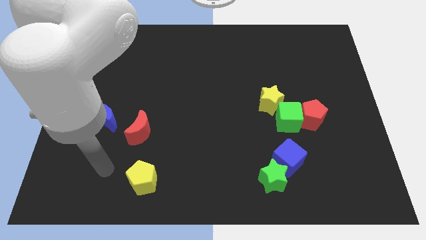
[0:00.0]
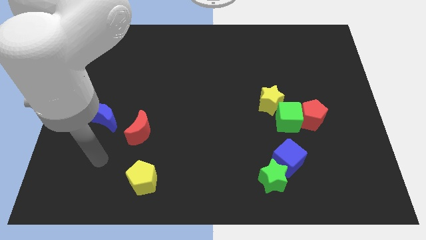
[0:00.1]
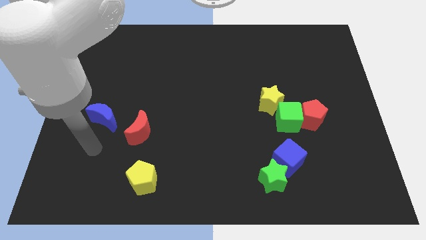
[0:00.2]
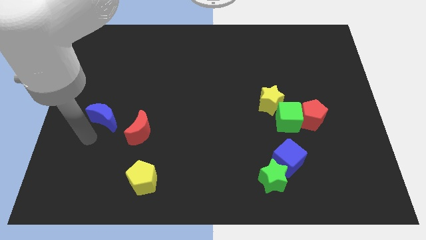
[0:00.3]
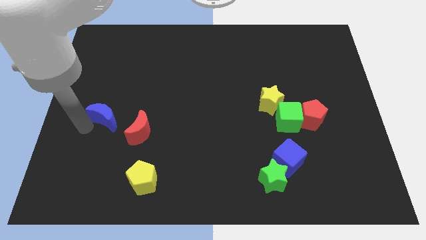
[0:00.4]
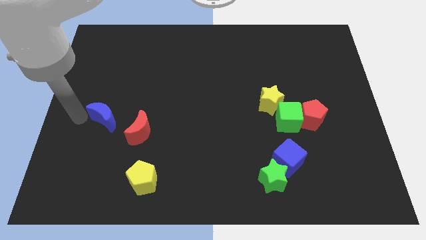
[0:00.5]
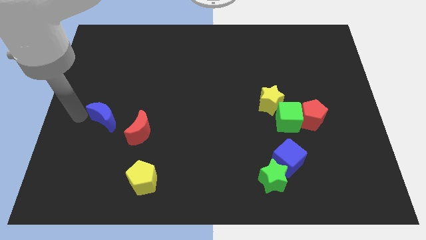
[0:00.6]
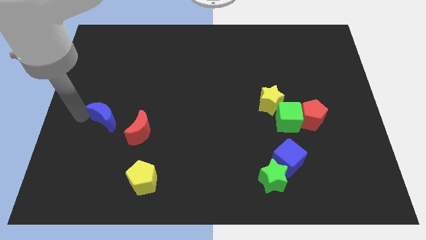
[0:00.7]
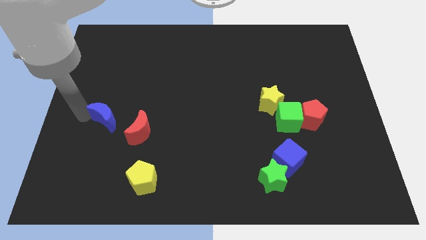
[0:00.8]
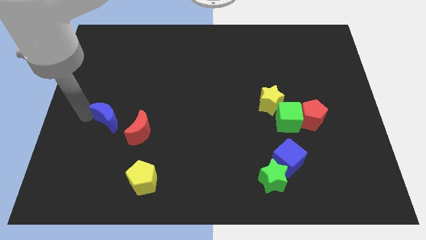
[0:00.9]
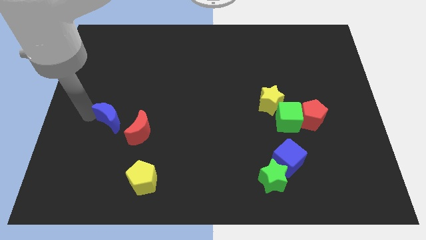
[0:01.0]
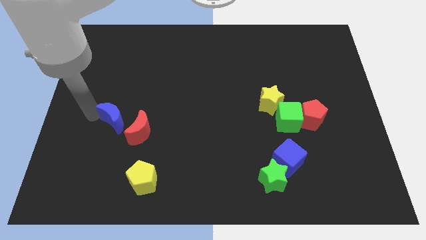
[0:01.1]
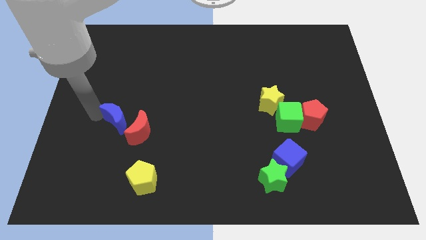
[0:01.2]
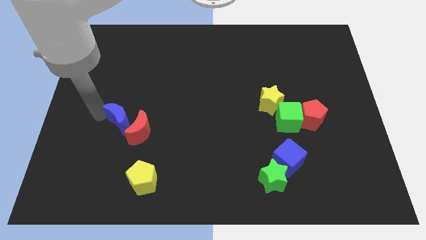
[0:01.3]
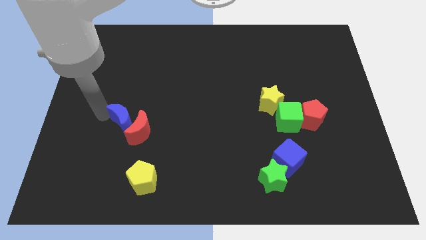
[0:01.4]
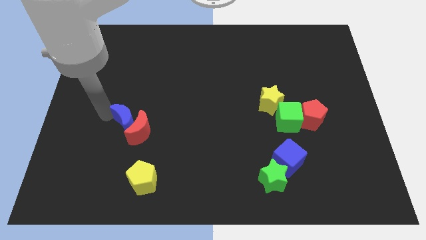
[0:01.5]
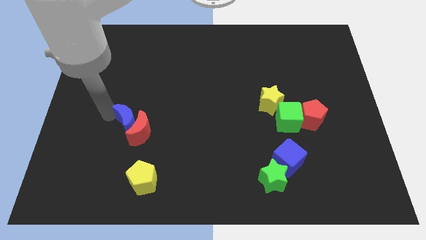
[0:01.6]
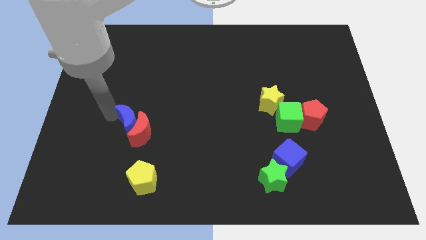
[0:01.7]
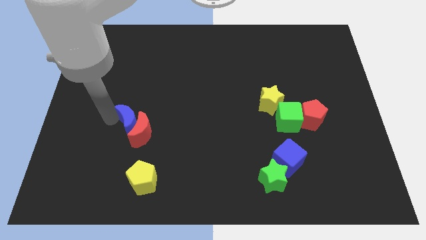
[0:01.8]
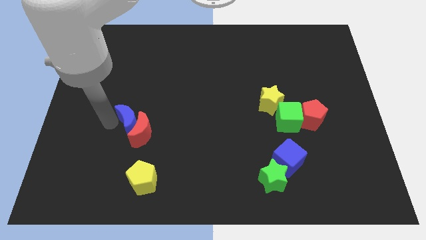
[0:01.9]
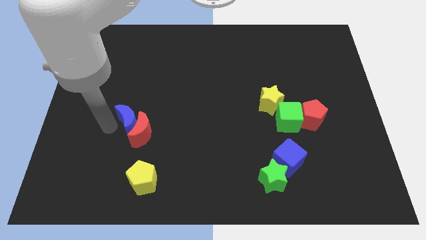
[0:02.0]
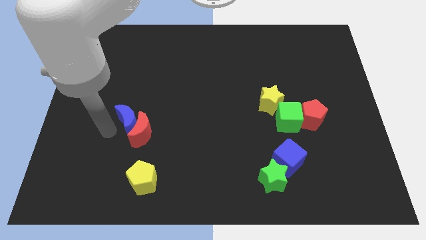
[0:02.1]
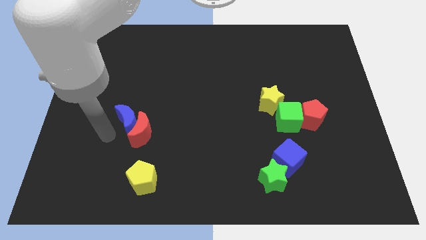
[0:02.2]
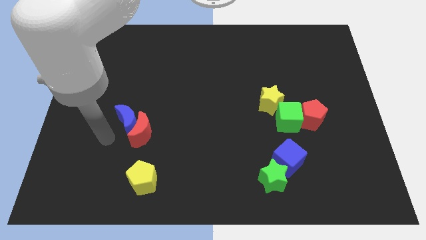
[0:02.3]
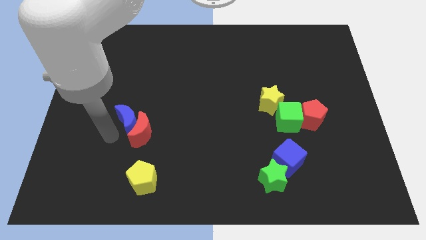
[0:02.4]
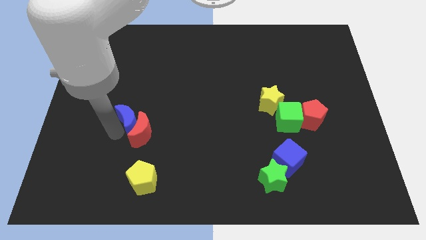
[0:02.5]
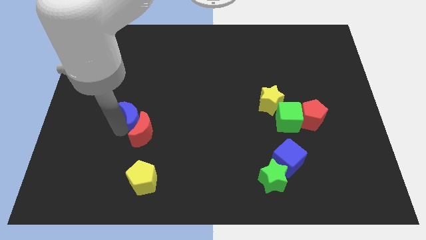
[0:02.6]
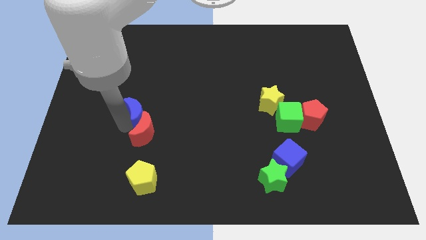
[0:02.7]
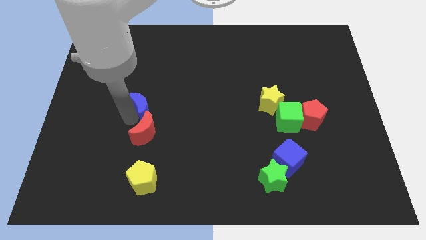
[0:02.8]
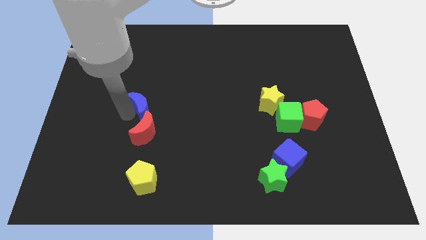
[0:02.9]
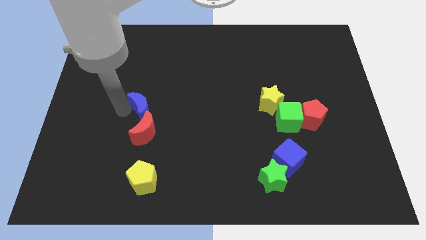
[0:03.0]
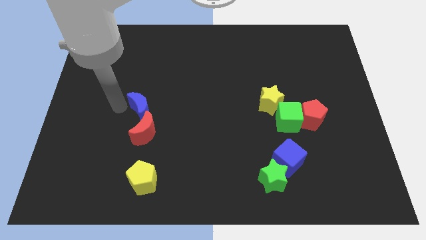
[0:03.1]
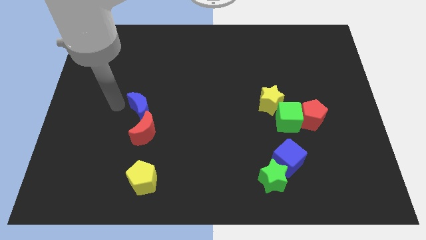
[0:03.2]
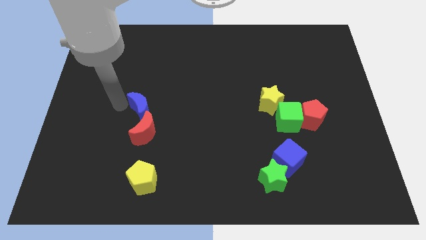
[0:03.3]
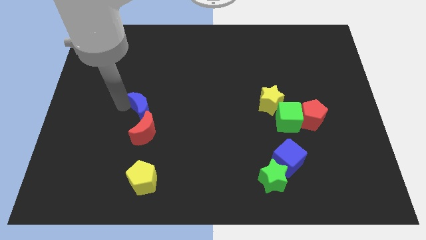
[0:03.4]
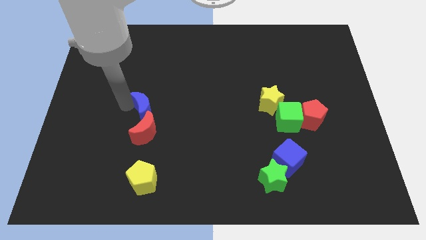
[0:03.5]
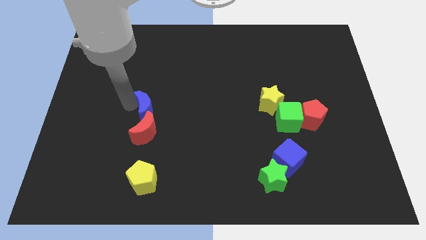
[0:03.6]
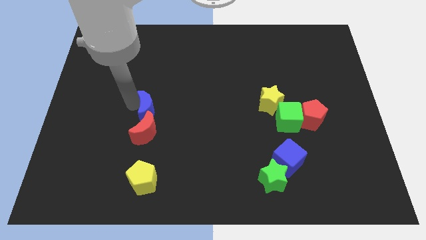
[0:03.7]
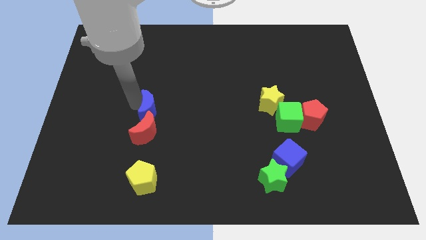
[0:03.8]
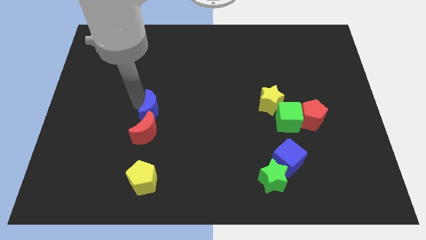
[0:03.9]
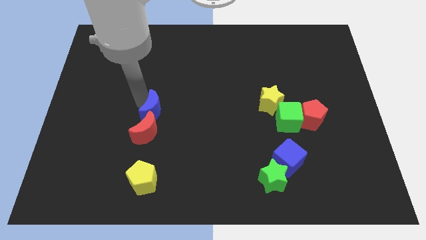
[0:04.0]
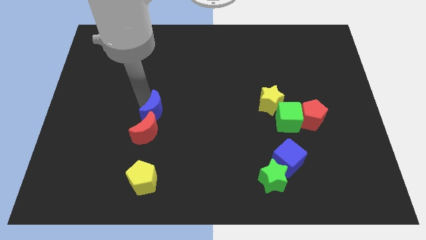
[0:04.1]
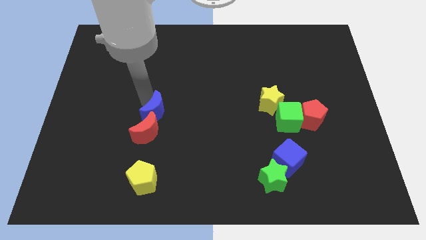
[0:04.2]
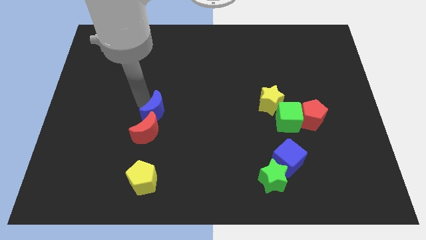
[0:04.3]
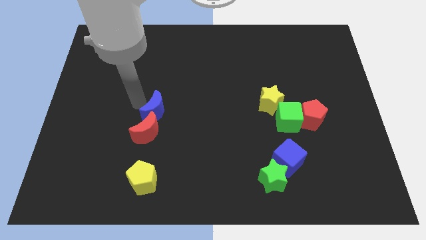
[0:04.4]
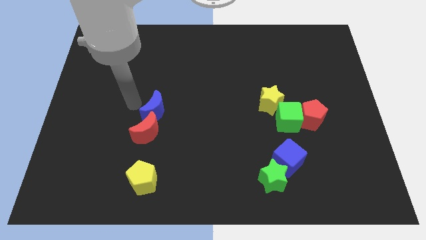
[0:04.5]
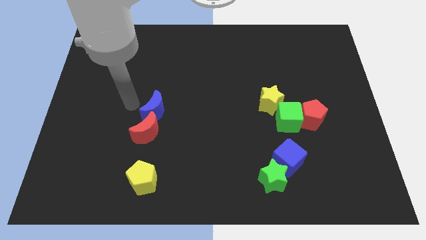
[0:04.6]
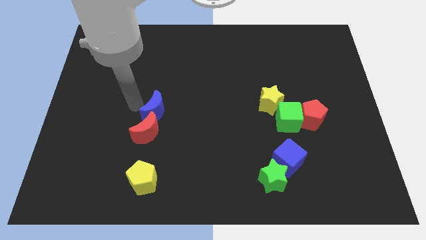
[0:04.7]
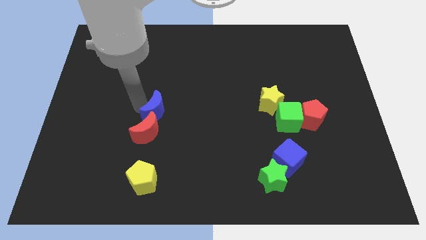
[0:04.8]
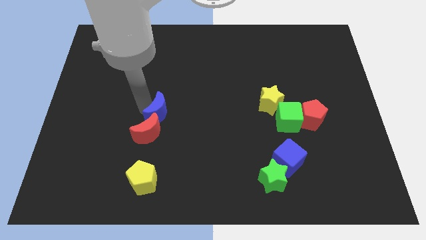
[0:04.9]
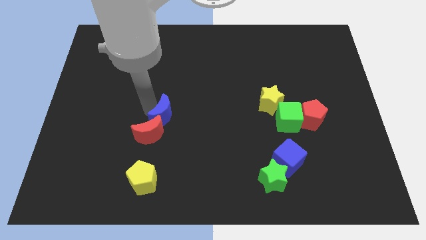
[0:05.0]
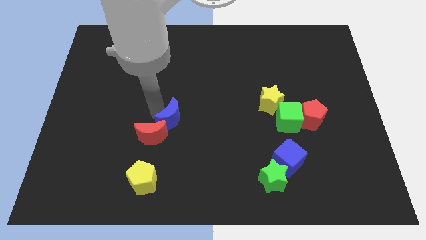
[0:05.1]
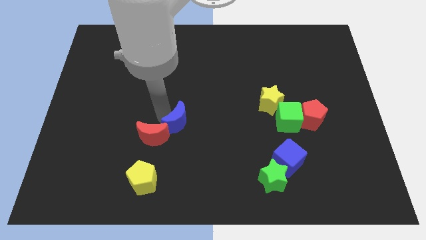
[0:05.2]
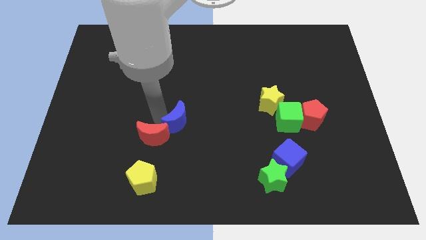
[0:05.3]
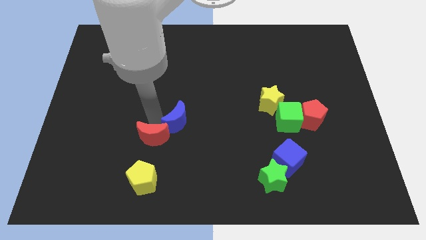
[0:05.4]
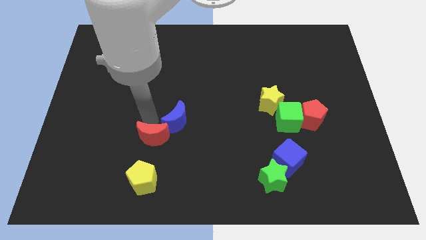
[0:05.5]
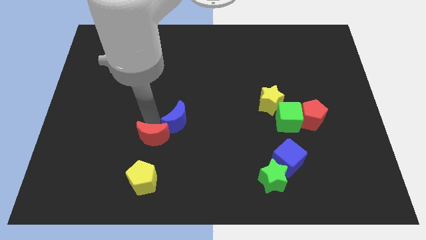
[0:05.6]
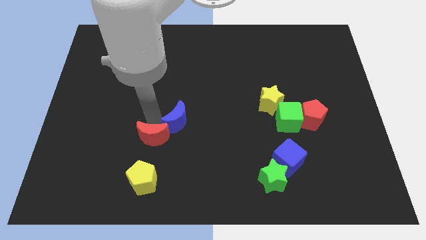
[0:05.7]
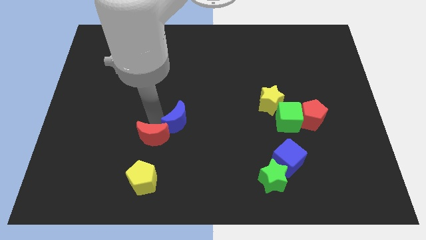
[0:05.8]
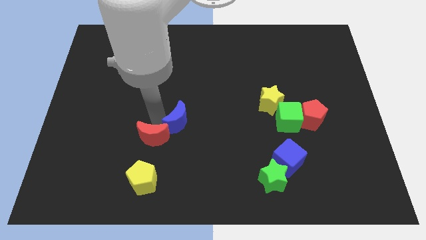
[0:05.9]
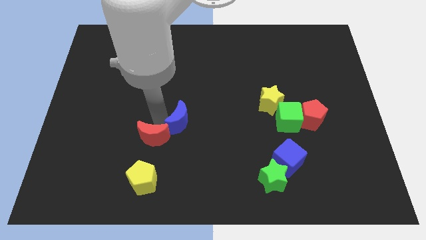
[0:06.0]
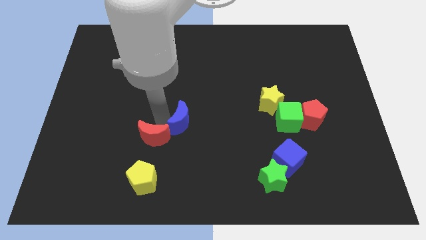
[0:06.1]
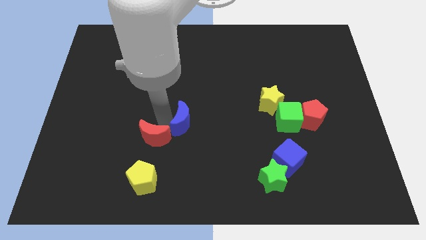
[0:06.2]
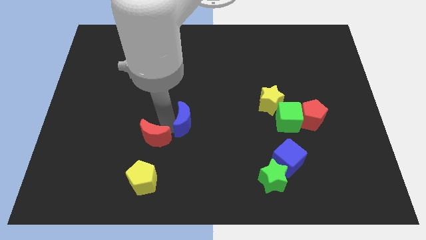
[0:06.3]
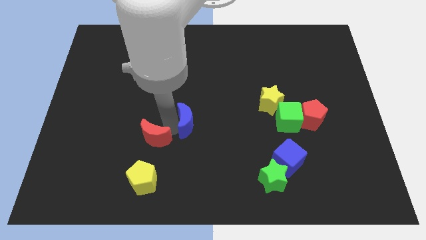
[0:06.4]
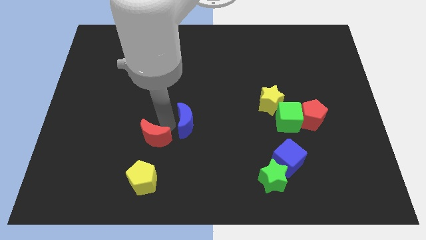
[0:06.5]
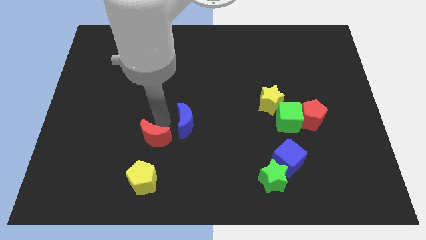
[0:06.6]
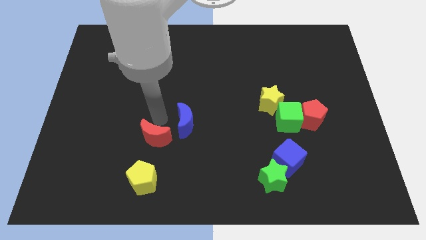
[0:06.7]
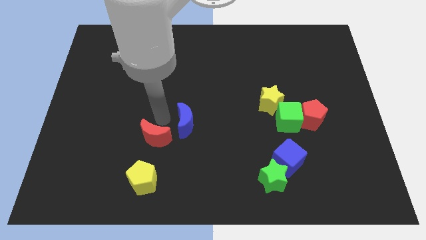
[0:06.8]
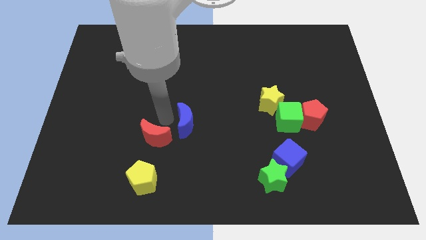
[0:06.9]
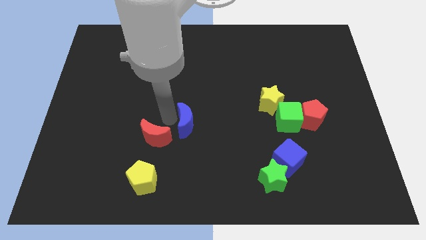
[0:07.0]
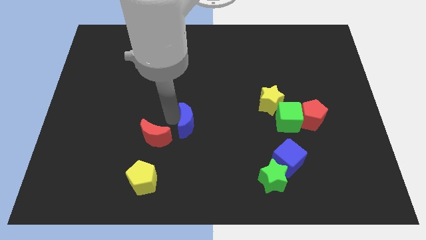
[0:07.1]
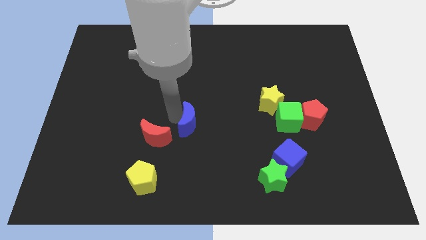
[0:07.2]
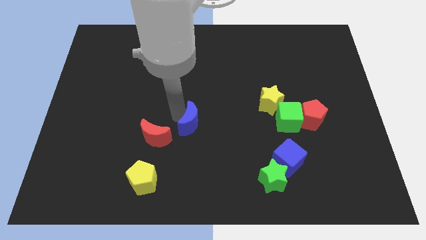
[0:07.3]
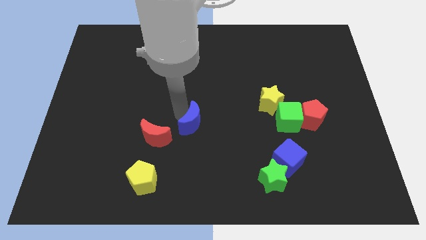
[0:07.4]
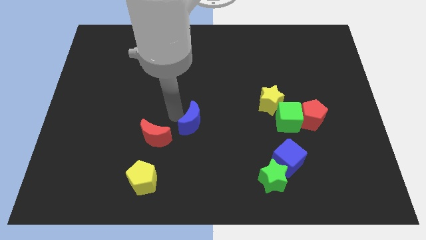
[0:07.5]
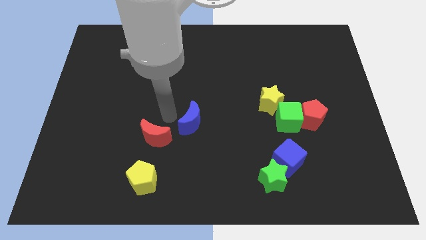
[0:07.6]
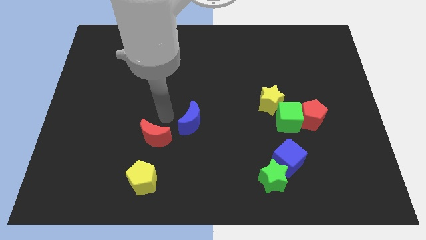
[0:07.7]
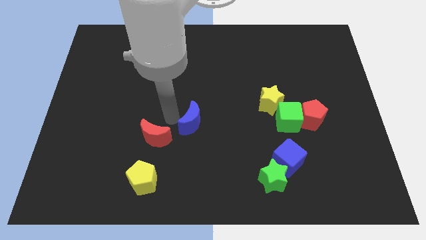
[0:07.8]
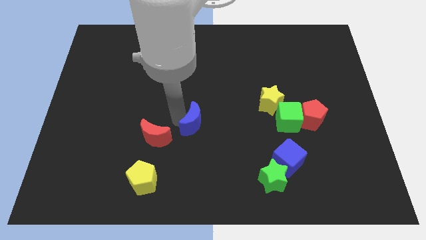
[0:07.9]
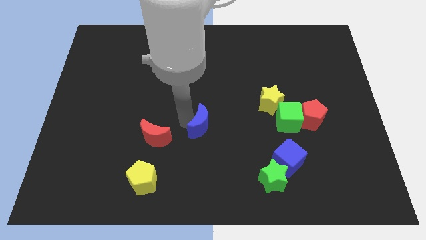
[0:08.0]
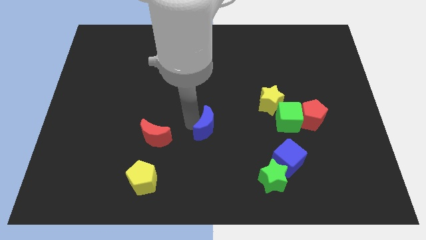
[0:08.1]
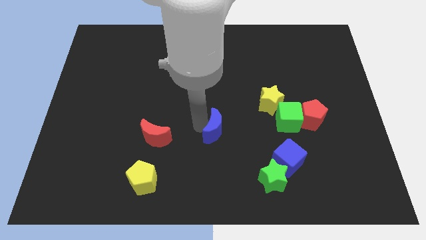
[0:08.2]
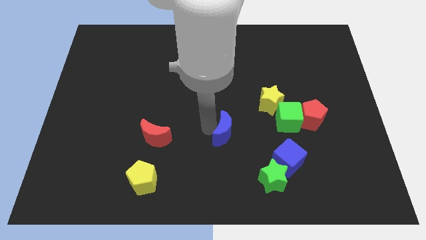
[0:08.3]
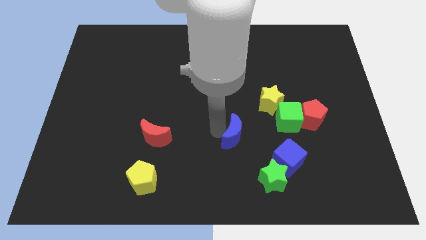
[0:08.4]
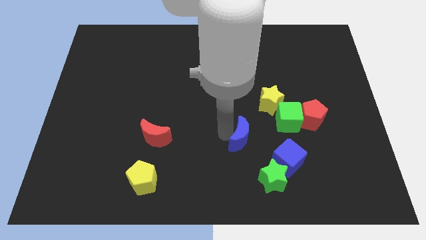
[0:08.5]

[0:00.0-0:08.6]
move the blue moon to the top left of the blue cube
